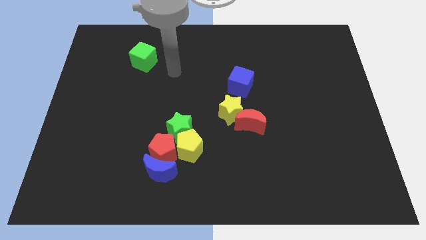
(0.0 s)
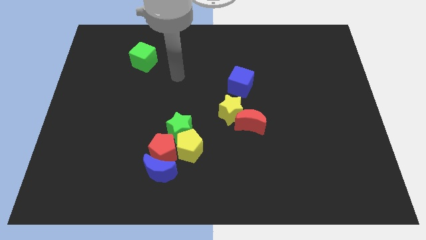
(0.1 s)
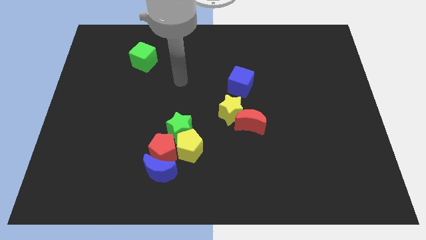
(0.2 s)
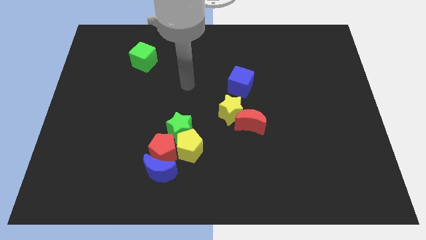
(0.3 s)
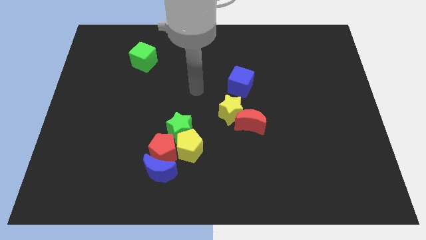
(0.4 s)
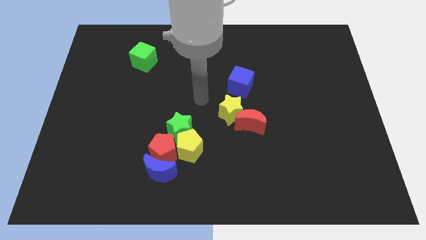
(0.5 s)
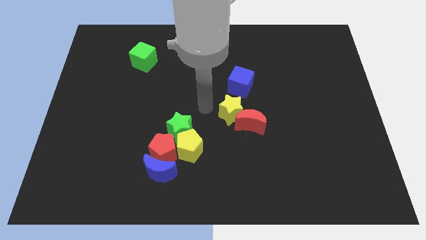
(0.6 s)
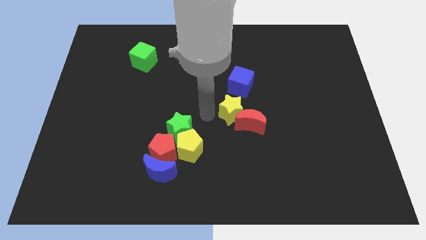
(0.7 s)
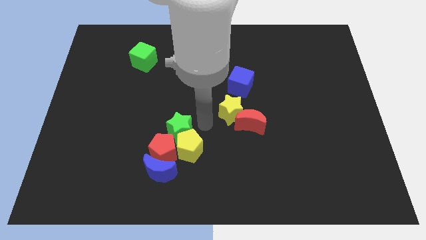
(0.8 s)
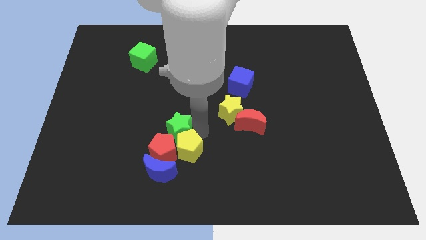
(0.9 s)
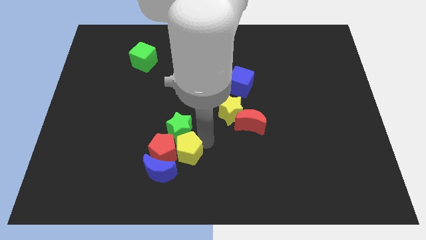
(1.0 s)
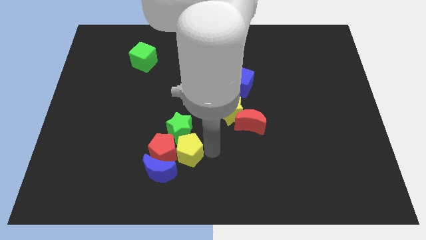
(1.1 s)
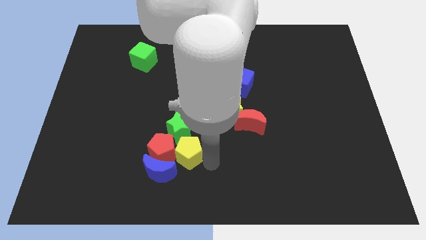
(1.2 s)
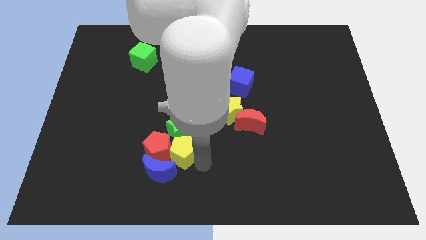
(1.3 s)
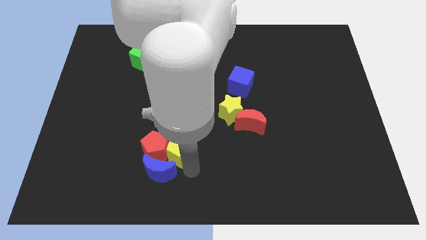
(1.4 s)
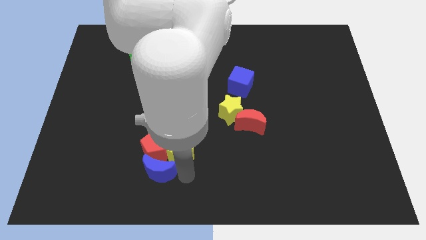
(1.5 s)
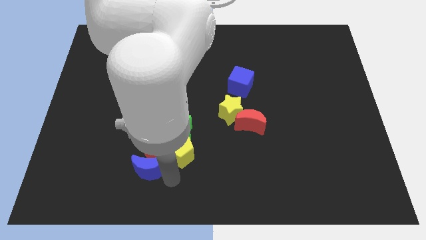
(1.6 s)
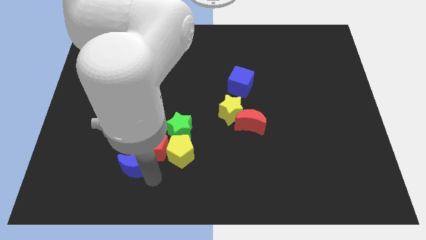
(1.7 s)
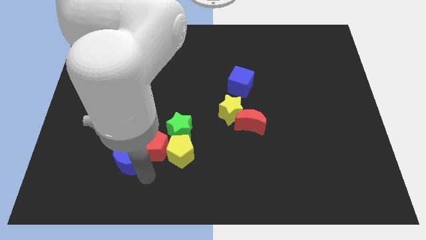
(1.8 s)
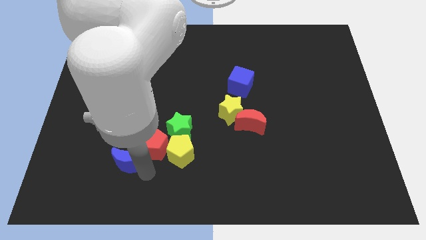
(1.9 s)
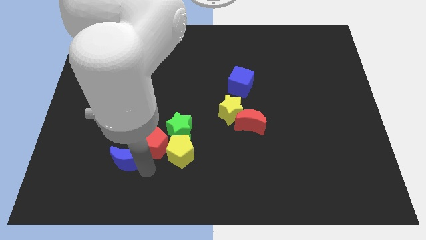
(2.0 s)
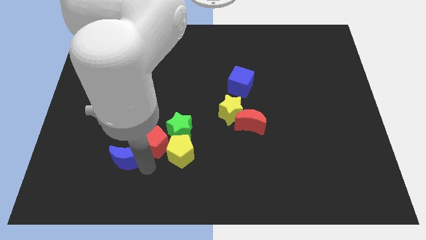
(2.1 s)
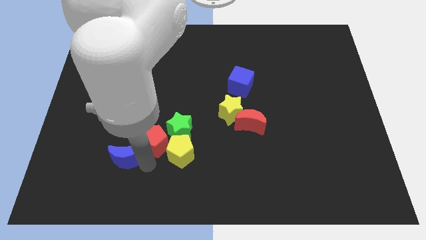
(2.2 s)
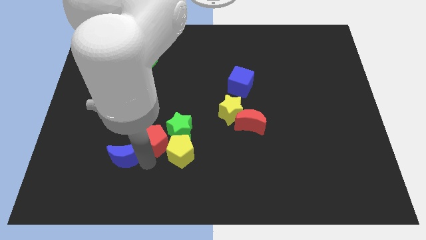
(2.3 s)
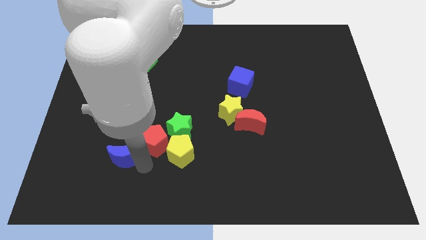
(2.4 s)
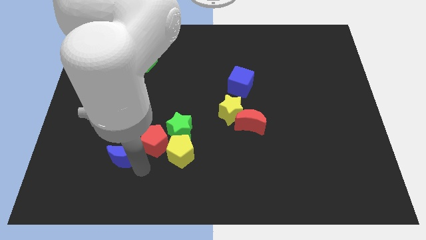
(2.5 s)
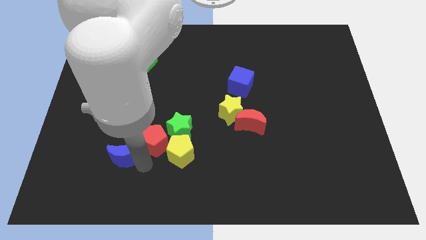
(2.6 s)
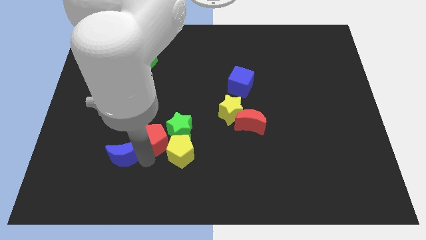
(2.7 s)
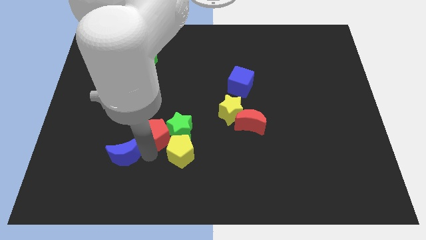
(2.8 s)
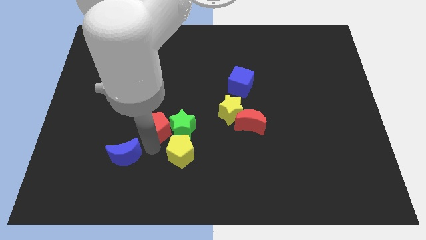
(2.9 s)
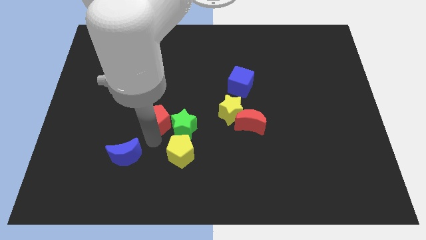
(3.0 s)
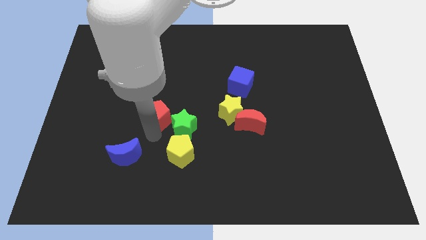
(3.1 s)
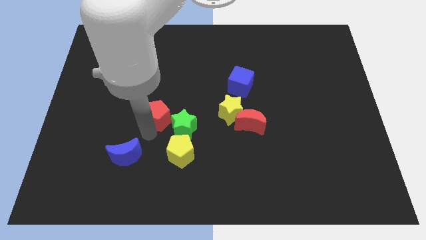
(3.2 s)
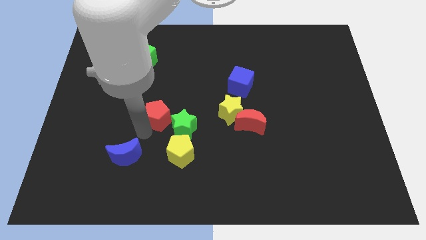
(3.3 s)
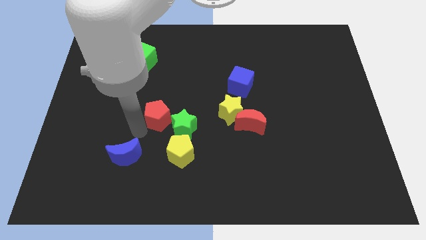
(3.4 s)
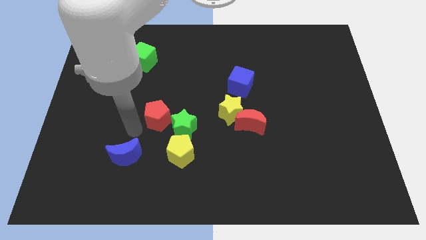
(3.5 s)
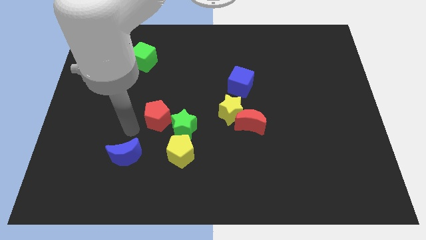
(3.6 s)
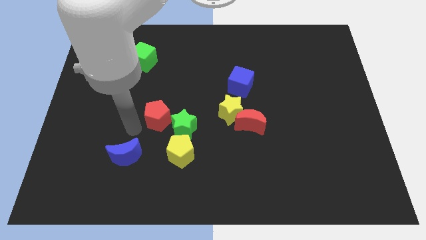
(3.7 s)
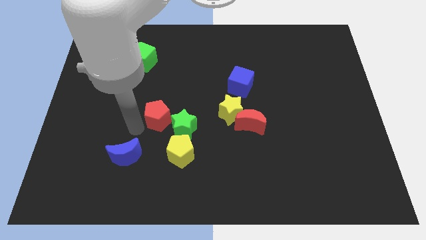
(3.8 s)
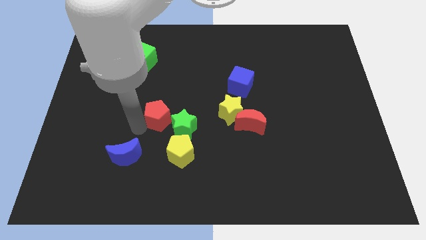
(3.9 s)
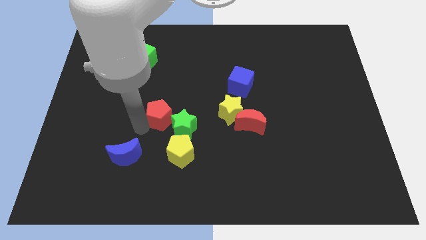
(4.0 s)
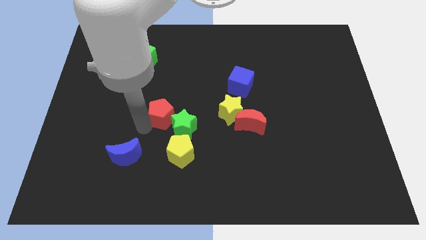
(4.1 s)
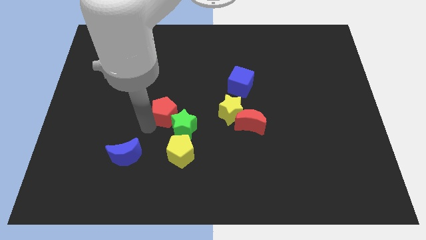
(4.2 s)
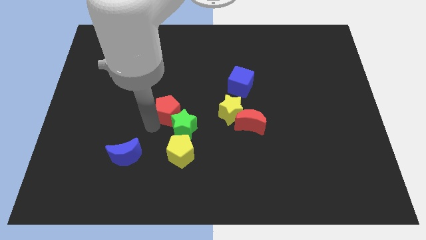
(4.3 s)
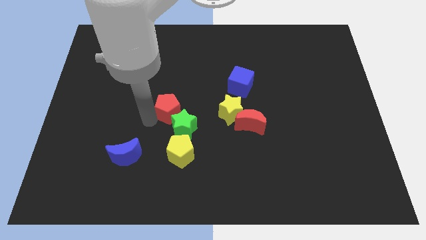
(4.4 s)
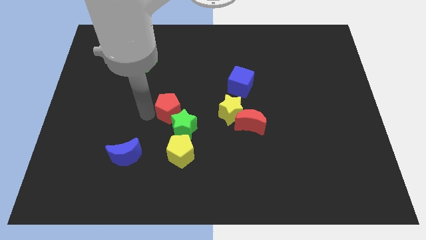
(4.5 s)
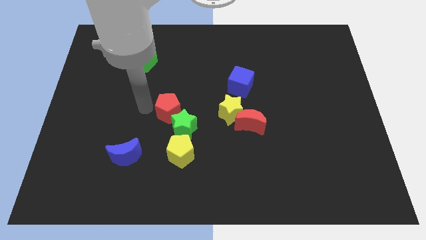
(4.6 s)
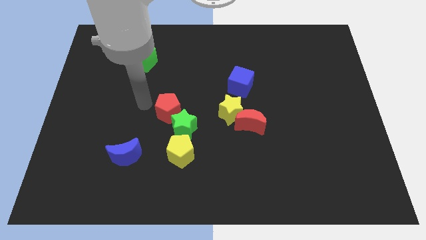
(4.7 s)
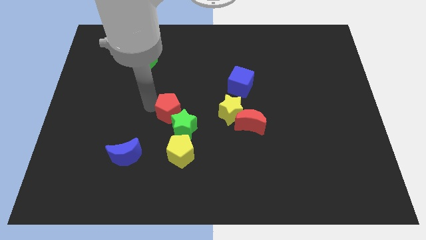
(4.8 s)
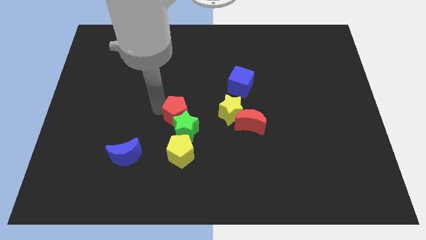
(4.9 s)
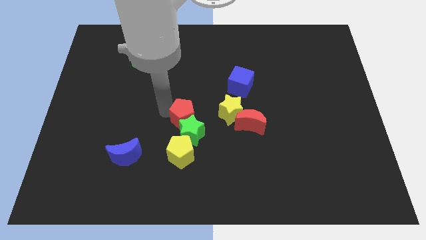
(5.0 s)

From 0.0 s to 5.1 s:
slide the red pentagon left of the red moon

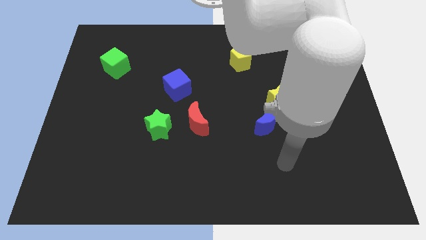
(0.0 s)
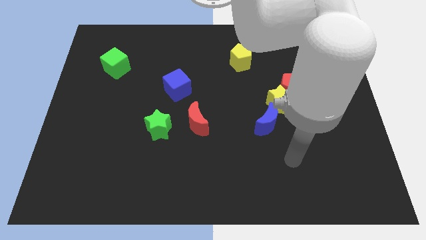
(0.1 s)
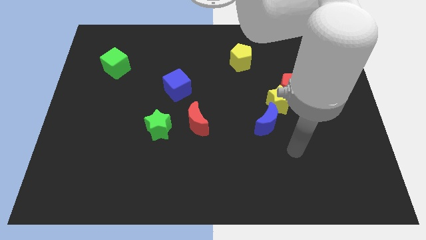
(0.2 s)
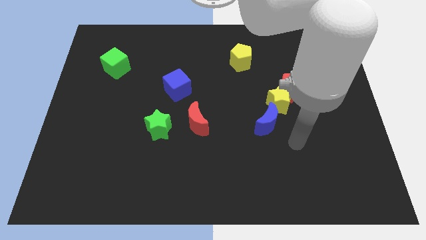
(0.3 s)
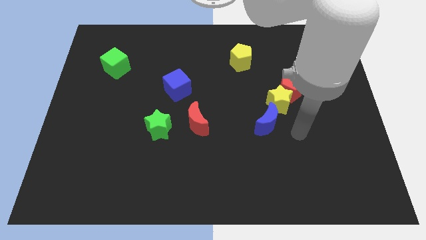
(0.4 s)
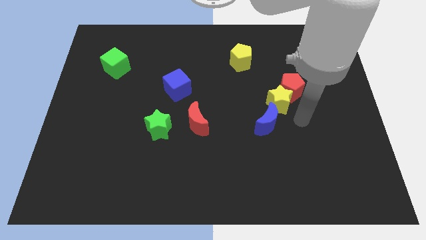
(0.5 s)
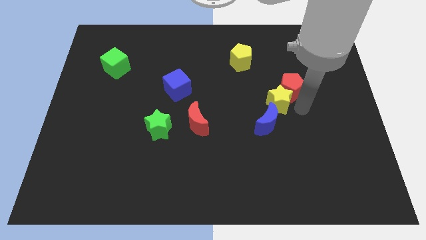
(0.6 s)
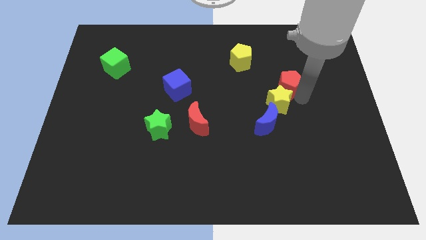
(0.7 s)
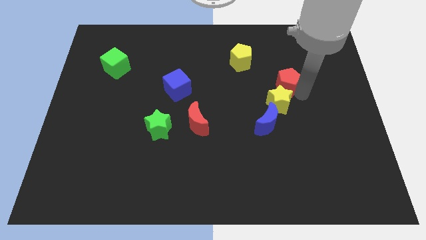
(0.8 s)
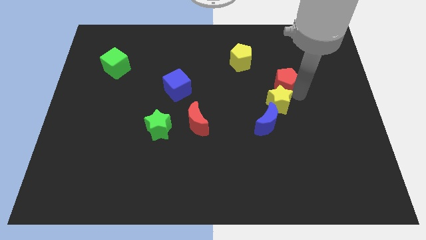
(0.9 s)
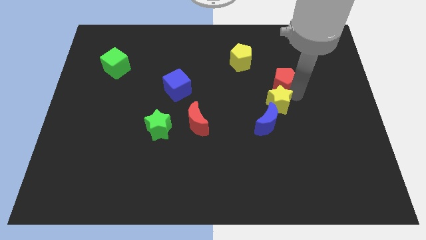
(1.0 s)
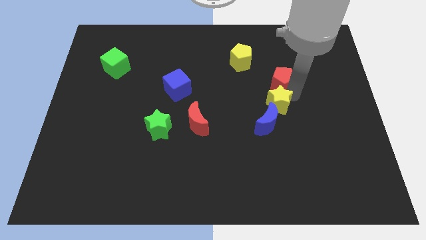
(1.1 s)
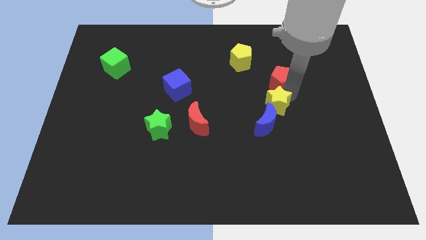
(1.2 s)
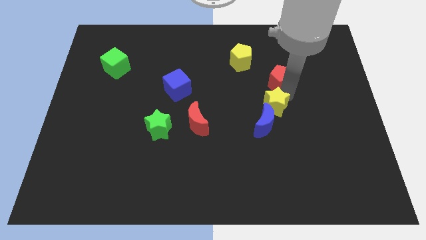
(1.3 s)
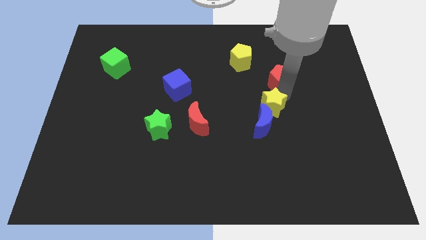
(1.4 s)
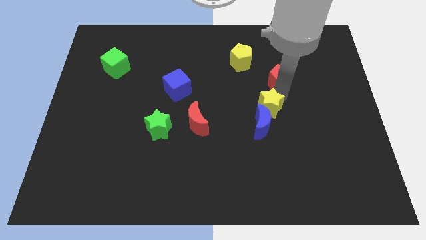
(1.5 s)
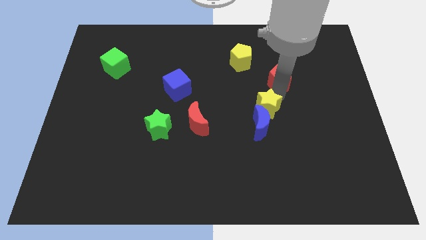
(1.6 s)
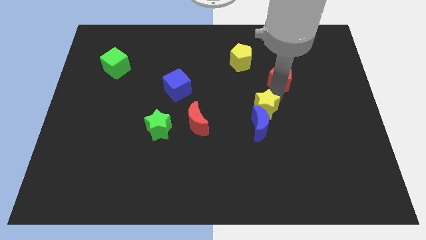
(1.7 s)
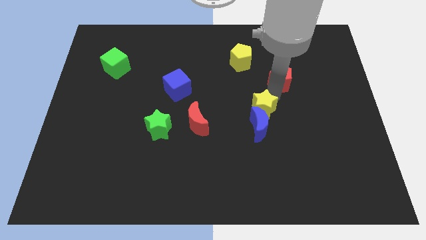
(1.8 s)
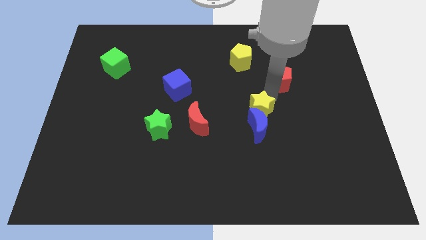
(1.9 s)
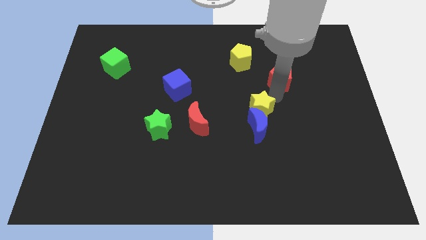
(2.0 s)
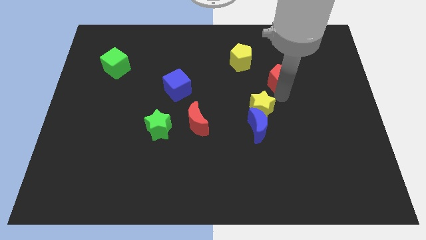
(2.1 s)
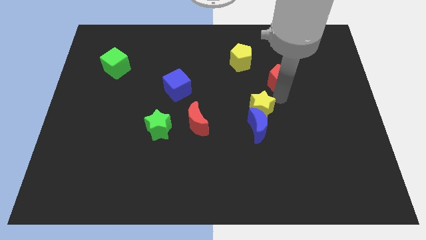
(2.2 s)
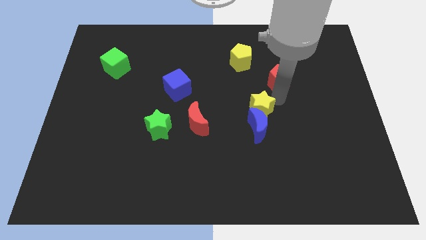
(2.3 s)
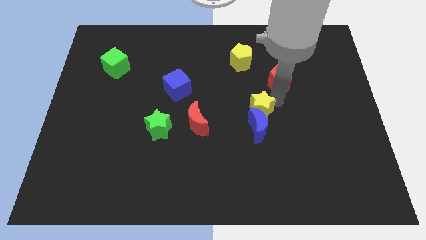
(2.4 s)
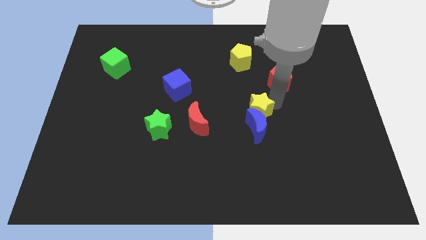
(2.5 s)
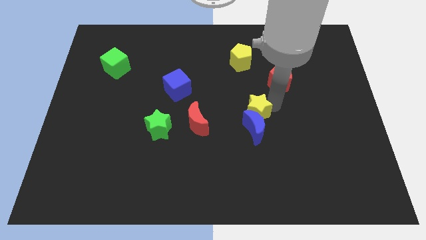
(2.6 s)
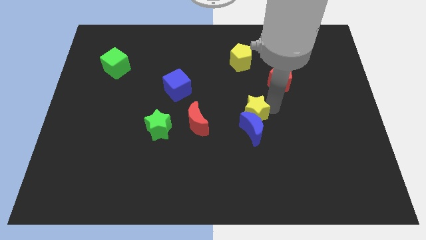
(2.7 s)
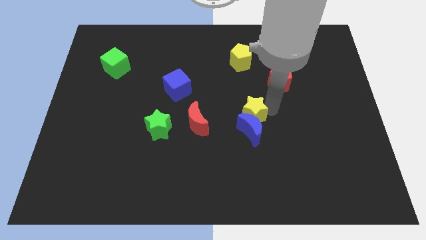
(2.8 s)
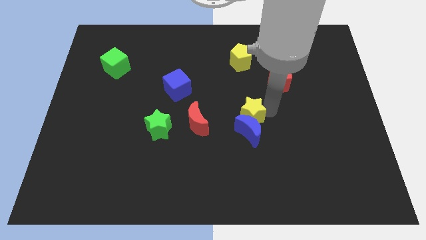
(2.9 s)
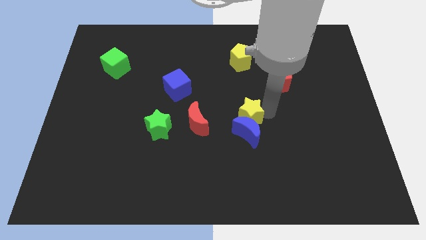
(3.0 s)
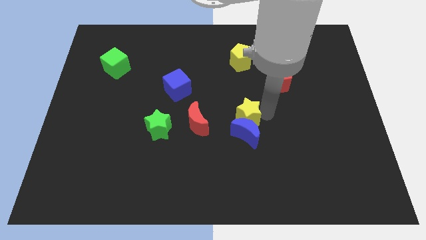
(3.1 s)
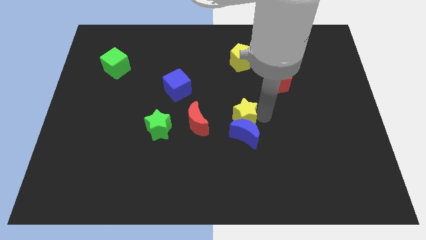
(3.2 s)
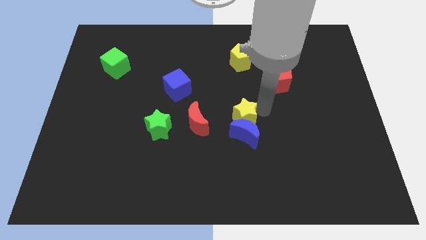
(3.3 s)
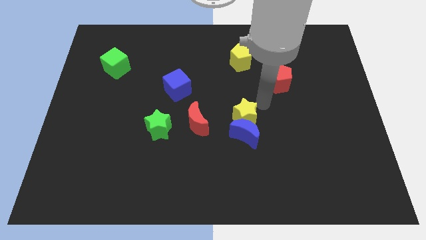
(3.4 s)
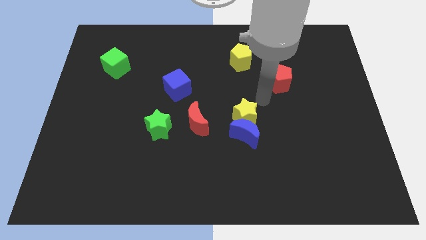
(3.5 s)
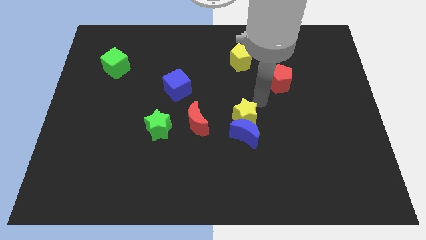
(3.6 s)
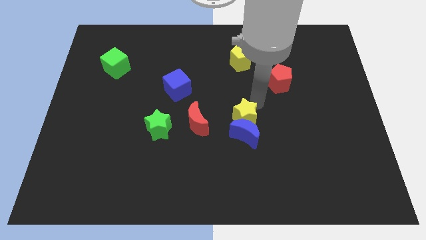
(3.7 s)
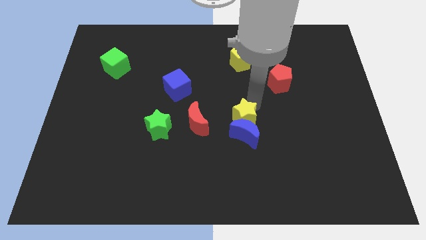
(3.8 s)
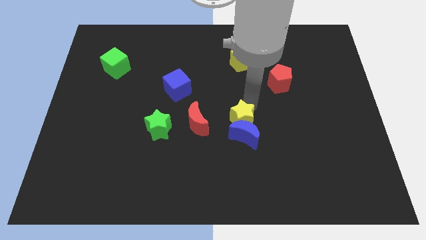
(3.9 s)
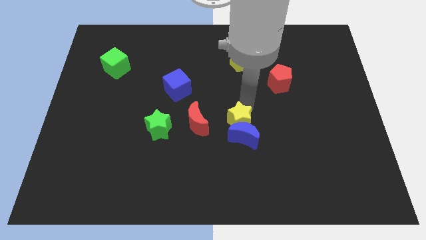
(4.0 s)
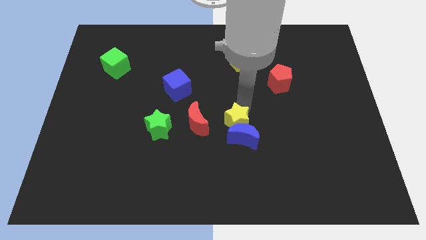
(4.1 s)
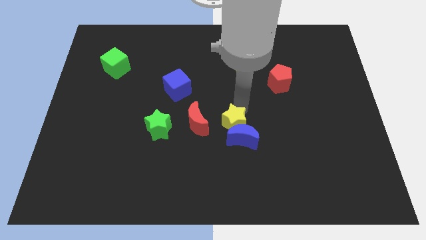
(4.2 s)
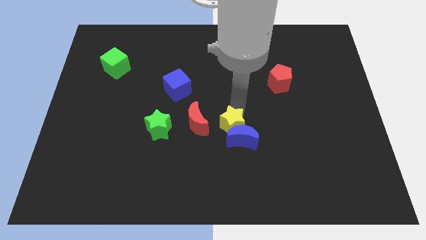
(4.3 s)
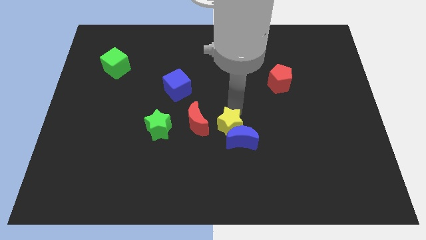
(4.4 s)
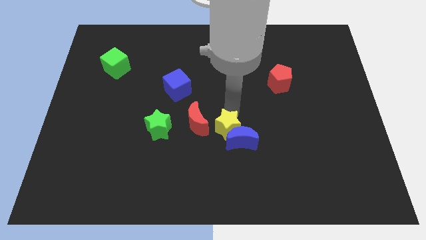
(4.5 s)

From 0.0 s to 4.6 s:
slide the yellow star to the bottom right of the red moon
